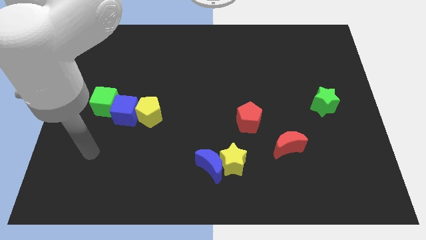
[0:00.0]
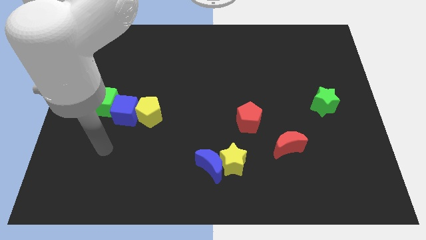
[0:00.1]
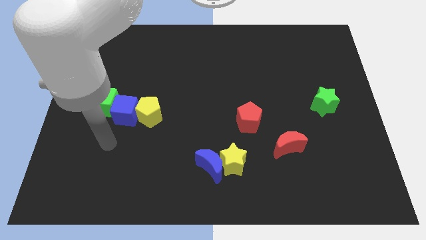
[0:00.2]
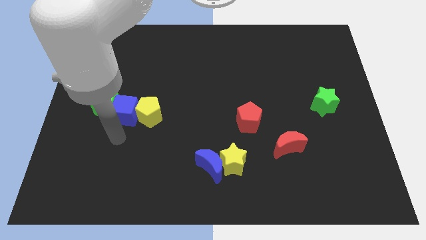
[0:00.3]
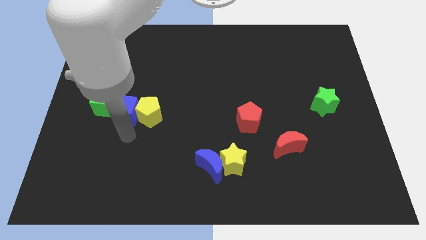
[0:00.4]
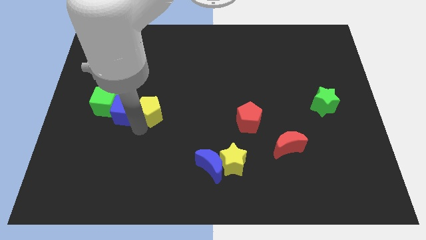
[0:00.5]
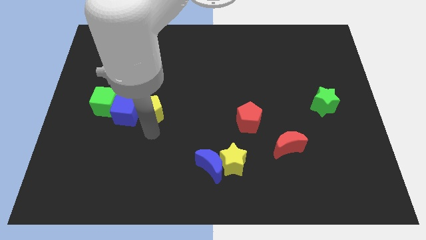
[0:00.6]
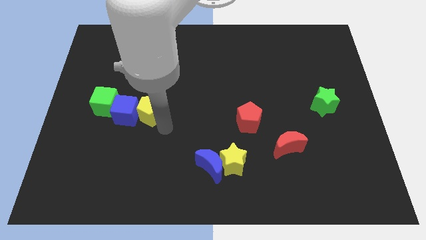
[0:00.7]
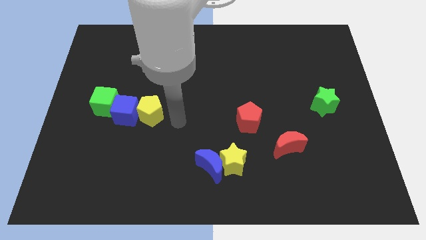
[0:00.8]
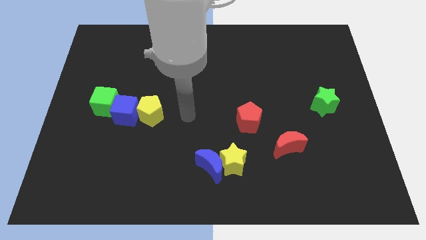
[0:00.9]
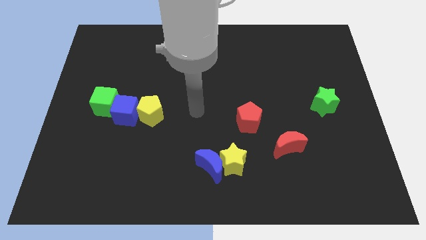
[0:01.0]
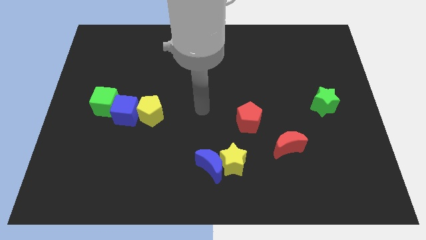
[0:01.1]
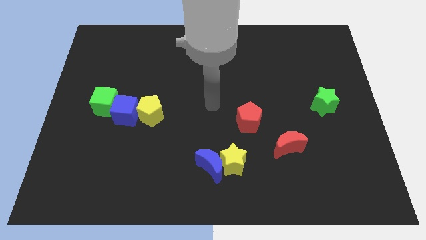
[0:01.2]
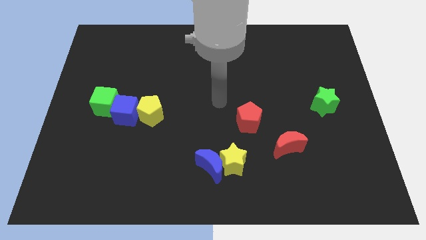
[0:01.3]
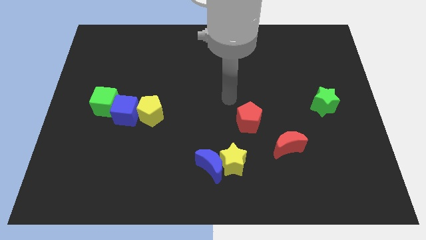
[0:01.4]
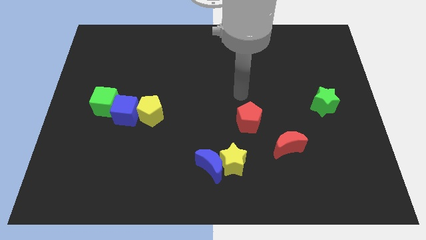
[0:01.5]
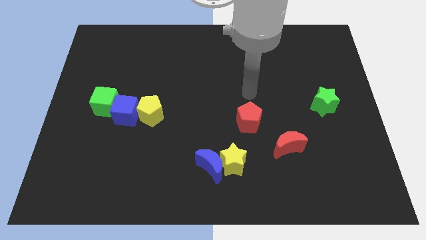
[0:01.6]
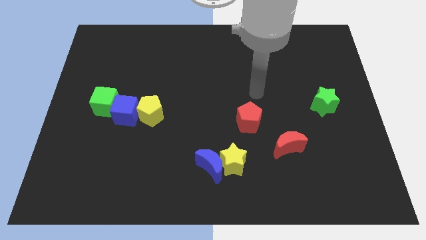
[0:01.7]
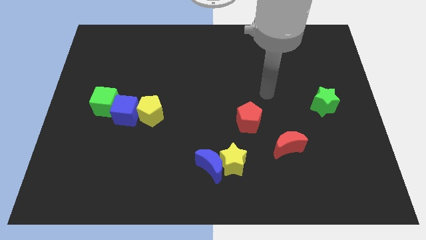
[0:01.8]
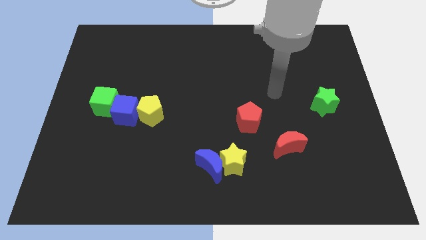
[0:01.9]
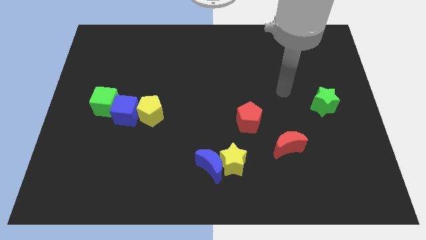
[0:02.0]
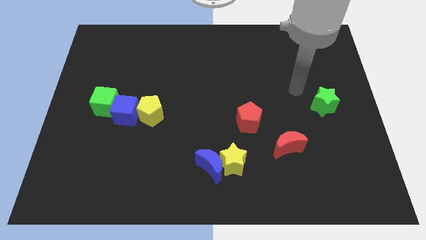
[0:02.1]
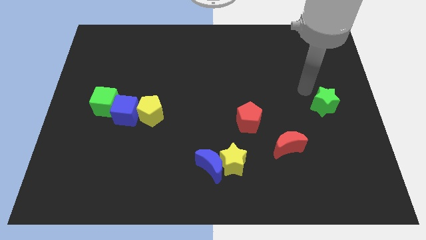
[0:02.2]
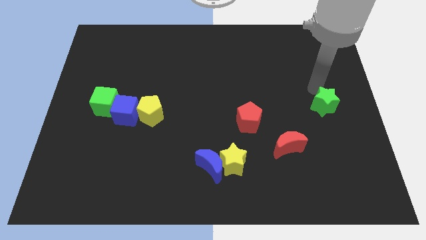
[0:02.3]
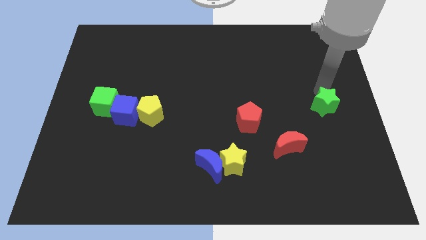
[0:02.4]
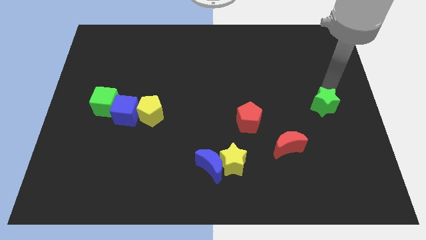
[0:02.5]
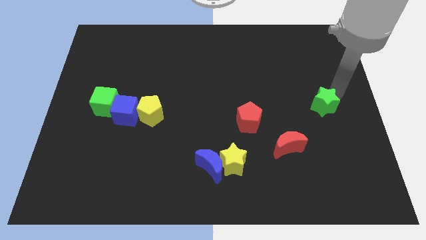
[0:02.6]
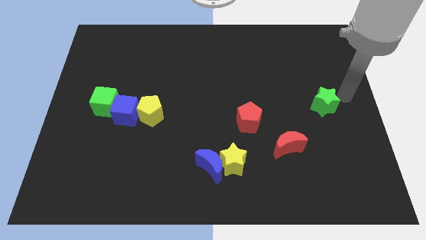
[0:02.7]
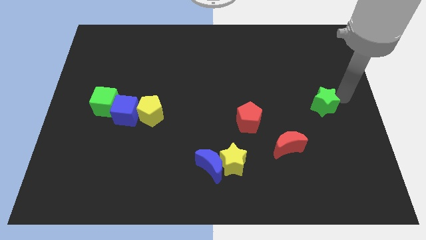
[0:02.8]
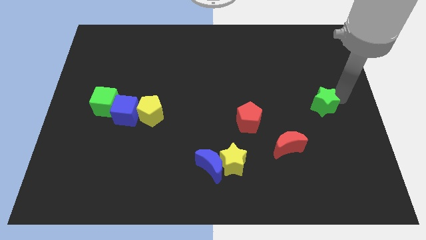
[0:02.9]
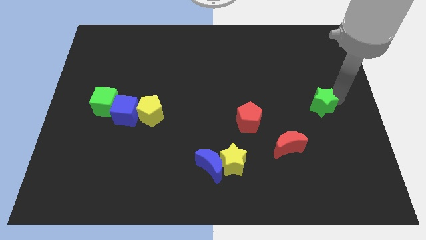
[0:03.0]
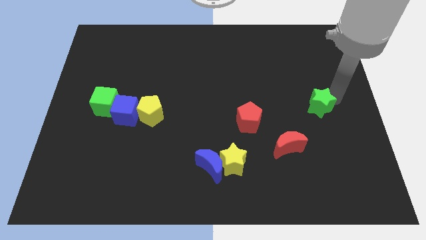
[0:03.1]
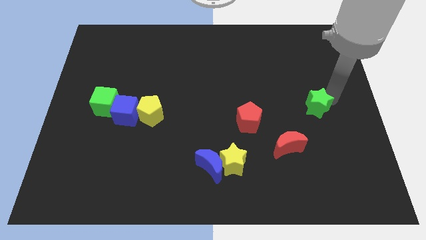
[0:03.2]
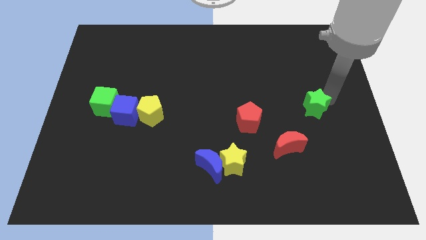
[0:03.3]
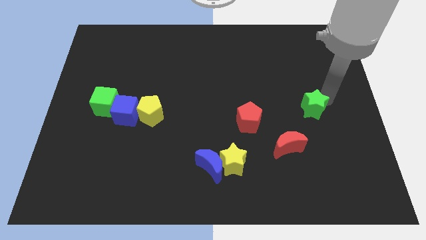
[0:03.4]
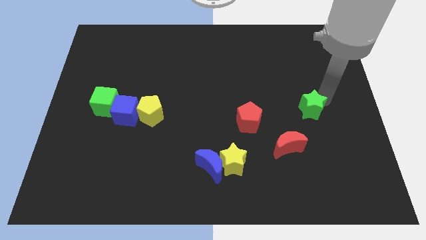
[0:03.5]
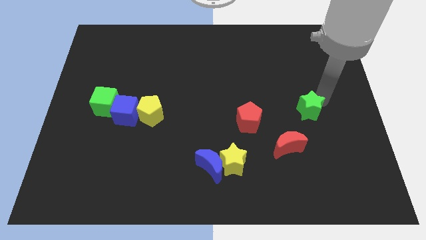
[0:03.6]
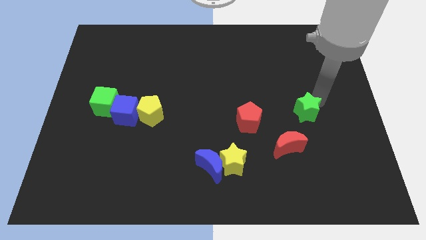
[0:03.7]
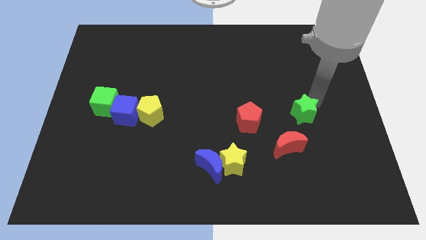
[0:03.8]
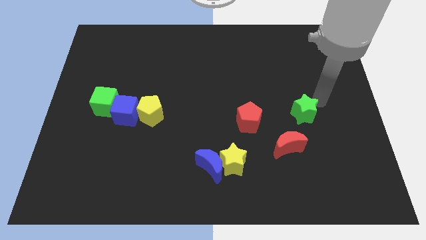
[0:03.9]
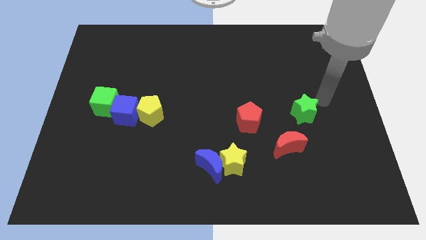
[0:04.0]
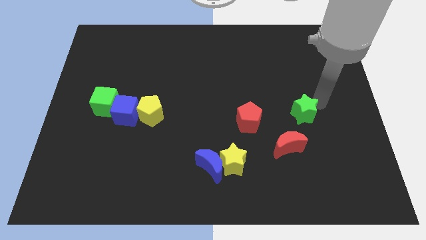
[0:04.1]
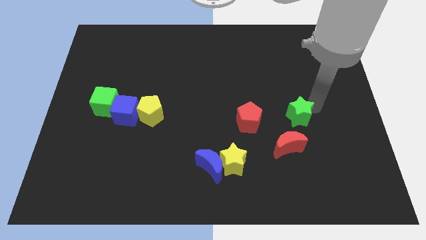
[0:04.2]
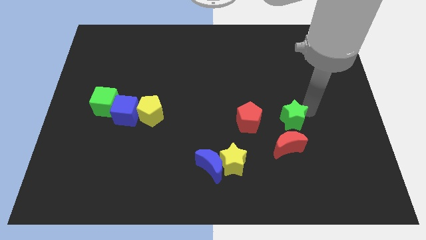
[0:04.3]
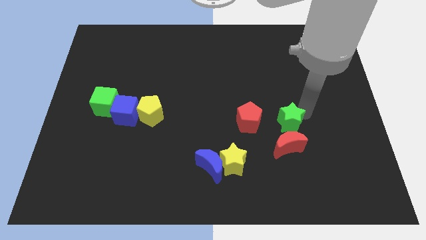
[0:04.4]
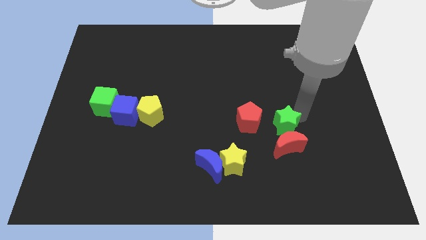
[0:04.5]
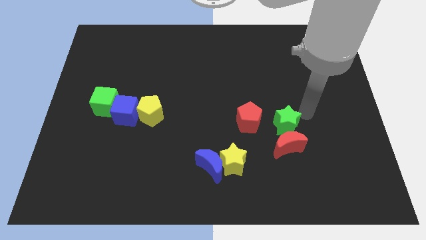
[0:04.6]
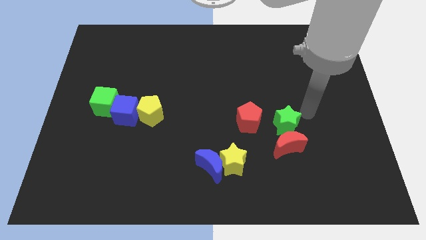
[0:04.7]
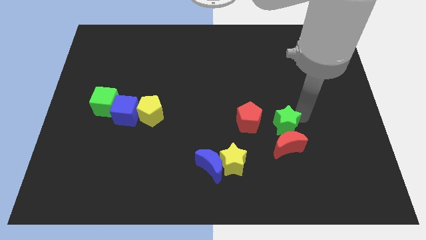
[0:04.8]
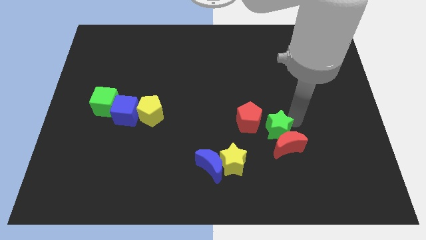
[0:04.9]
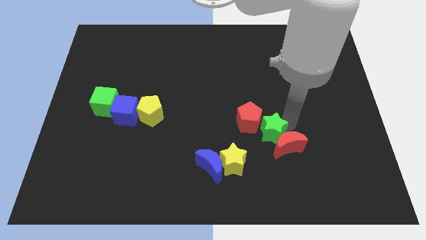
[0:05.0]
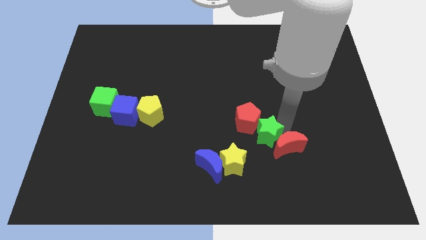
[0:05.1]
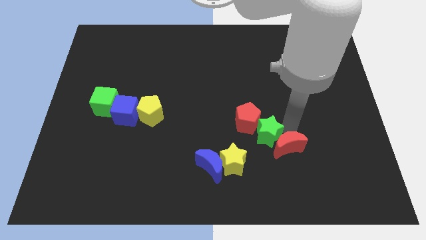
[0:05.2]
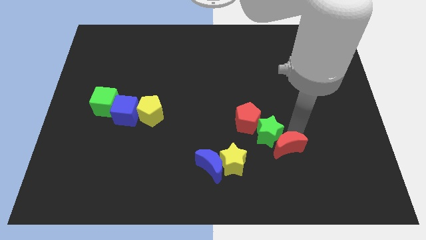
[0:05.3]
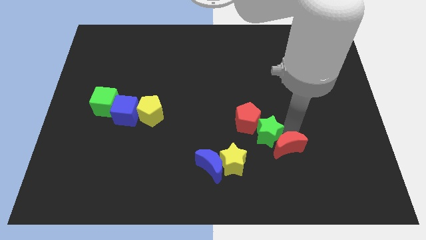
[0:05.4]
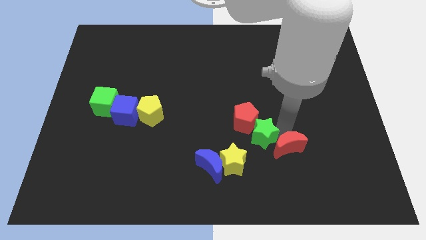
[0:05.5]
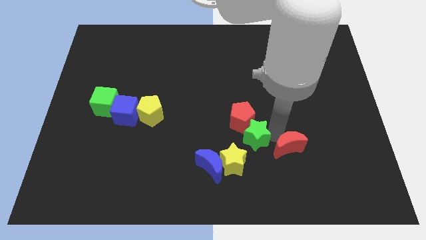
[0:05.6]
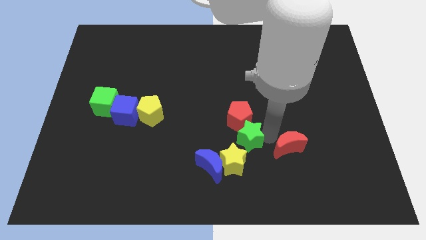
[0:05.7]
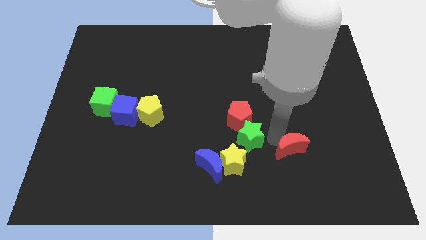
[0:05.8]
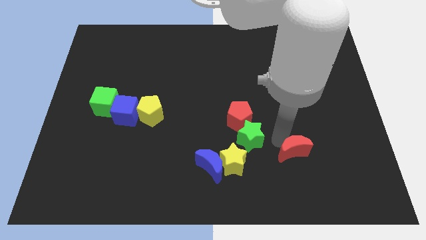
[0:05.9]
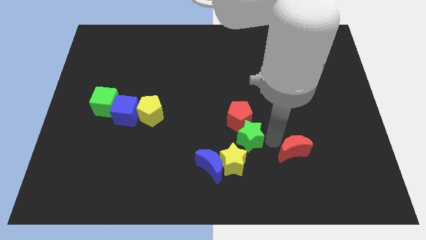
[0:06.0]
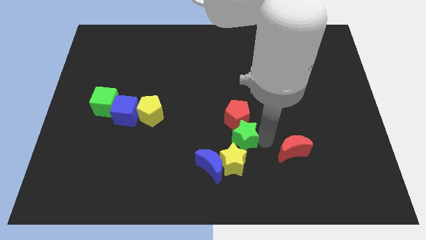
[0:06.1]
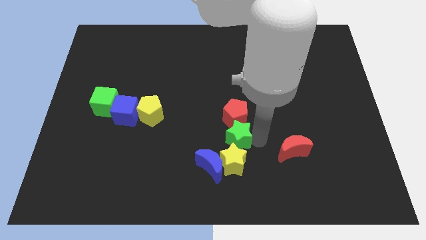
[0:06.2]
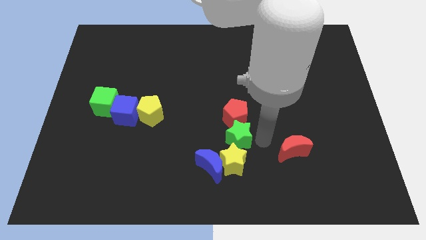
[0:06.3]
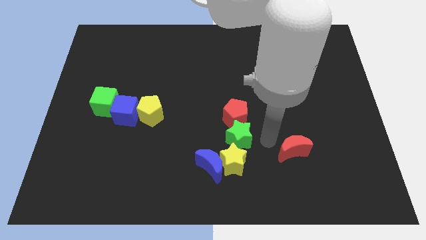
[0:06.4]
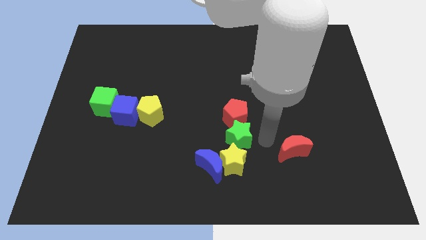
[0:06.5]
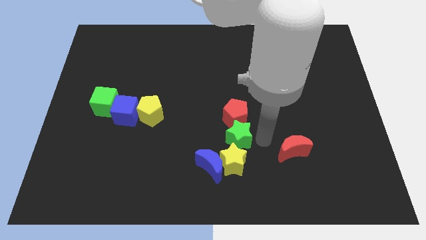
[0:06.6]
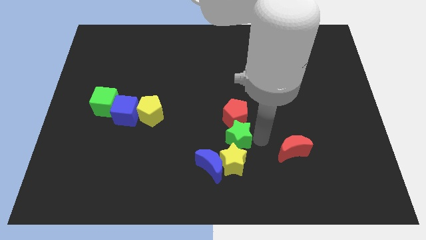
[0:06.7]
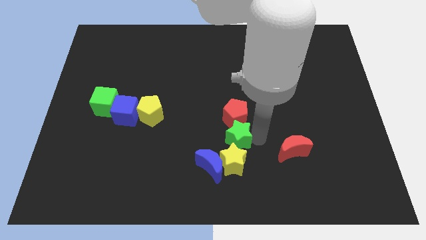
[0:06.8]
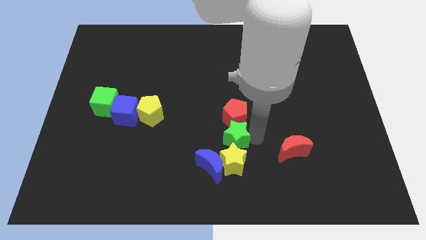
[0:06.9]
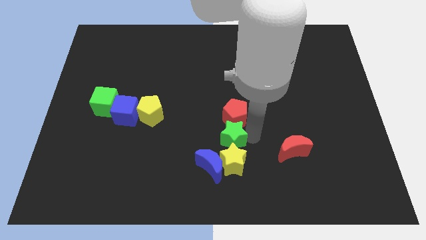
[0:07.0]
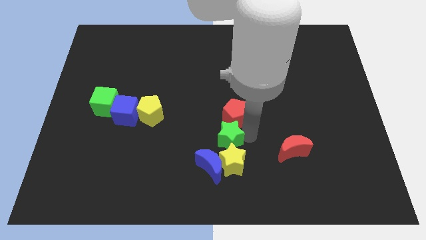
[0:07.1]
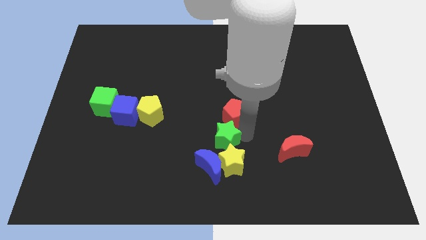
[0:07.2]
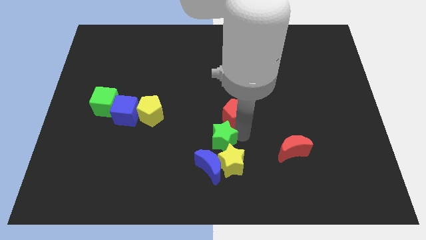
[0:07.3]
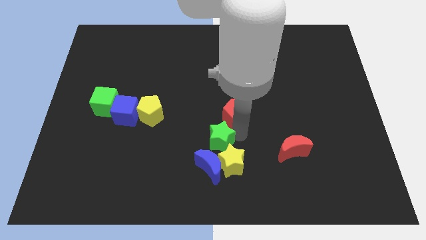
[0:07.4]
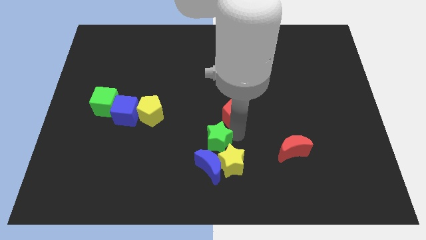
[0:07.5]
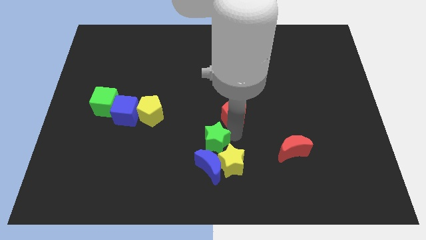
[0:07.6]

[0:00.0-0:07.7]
slide the green star to the blue moon
